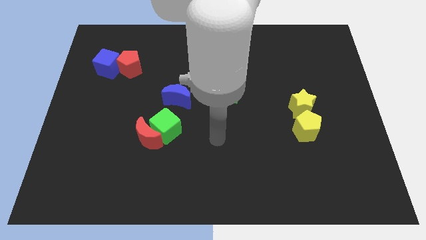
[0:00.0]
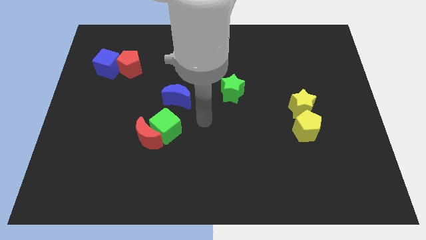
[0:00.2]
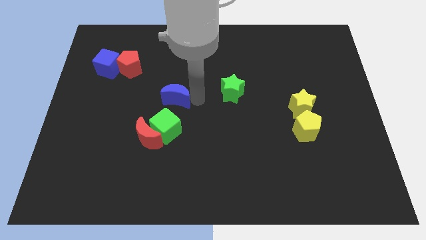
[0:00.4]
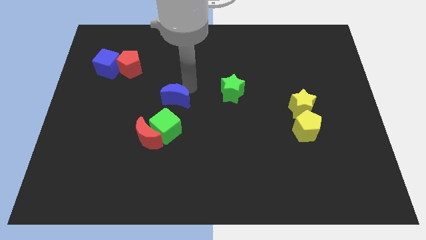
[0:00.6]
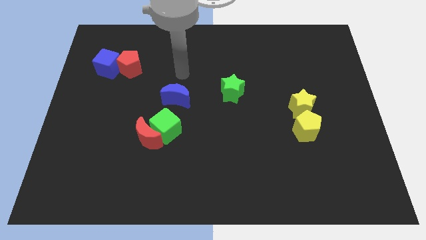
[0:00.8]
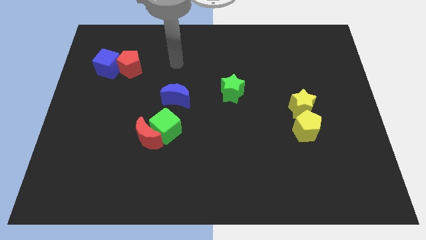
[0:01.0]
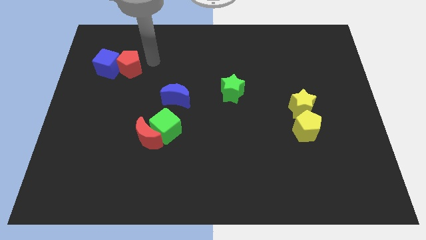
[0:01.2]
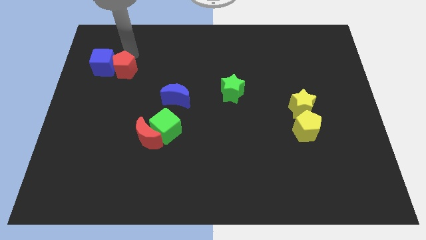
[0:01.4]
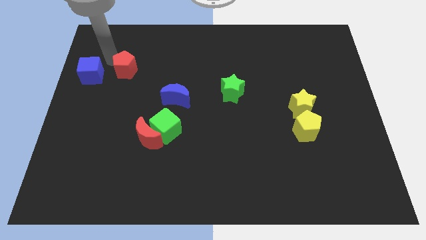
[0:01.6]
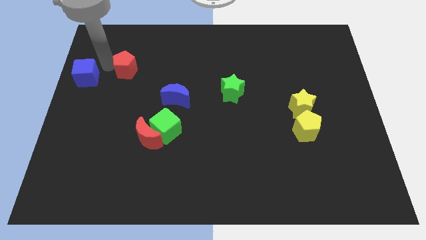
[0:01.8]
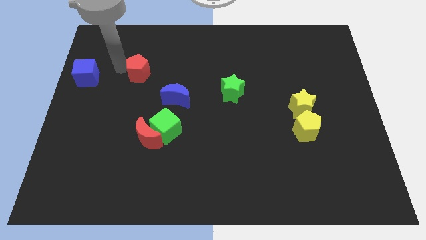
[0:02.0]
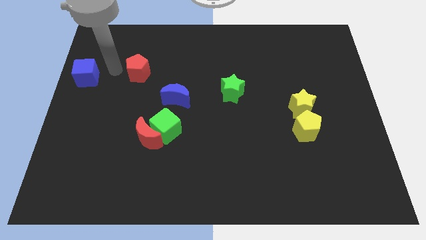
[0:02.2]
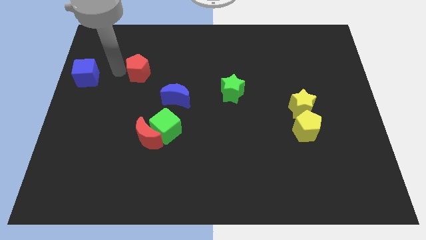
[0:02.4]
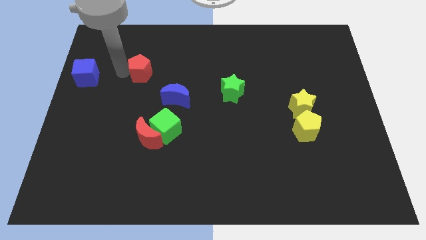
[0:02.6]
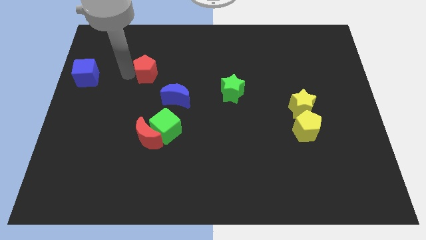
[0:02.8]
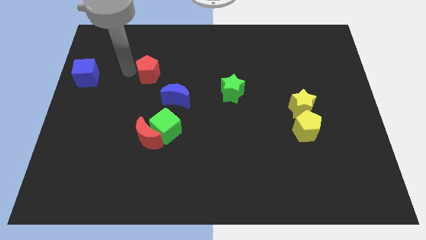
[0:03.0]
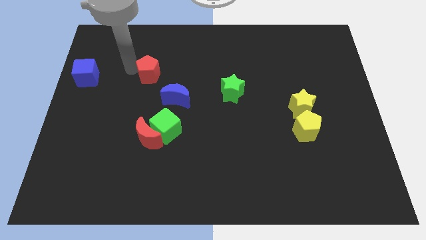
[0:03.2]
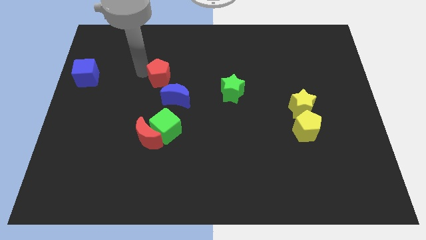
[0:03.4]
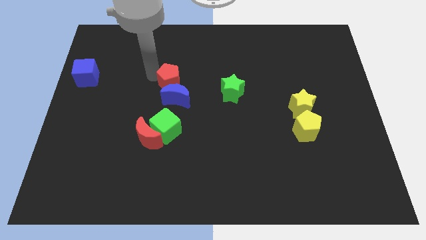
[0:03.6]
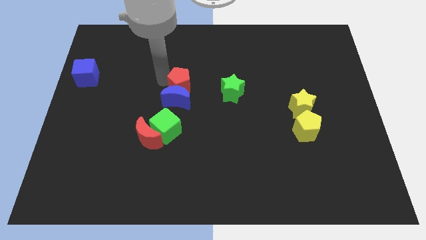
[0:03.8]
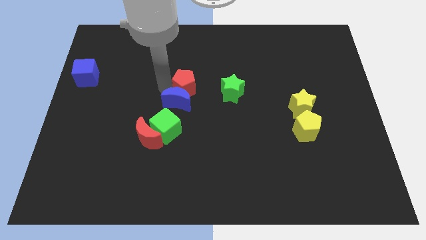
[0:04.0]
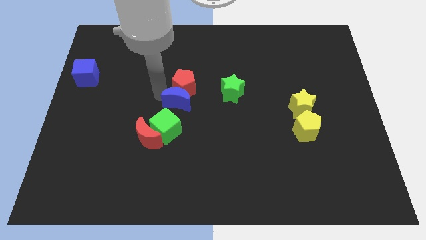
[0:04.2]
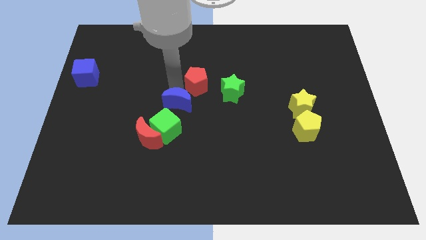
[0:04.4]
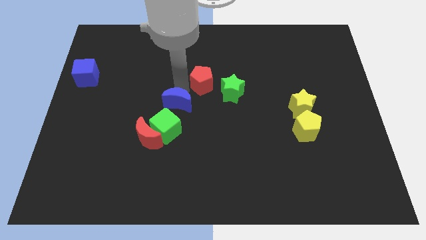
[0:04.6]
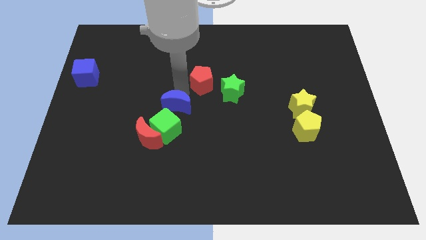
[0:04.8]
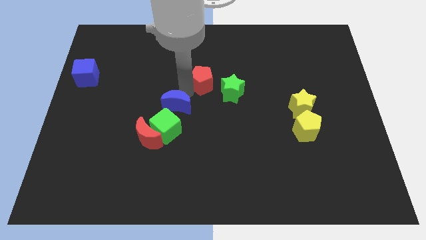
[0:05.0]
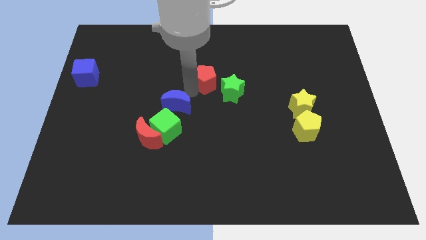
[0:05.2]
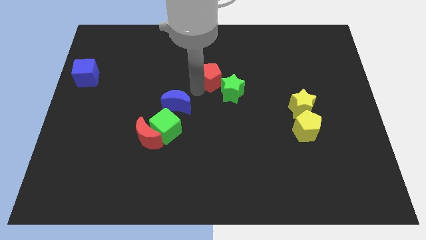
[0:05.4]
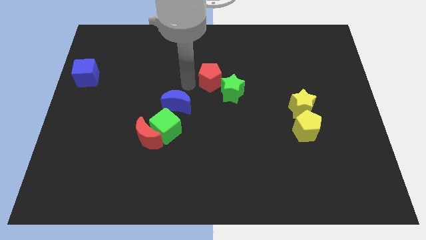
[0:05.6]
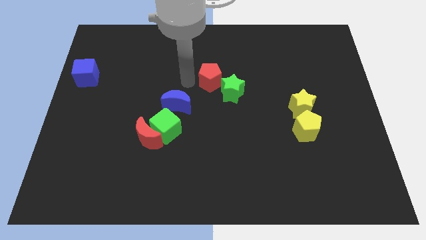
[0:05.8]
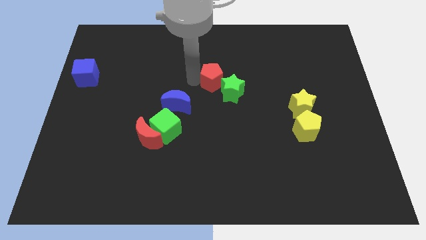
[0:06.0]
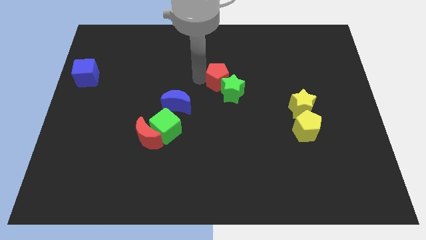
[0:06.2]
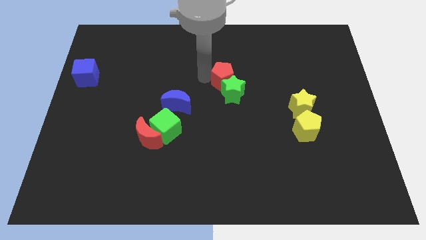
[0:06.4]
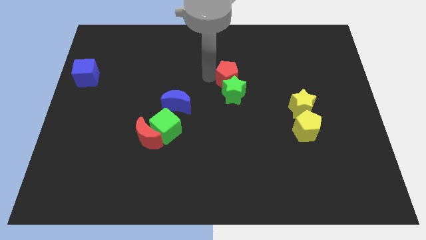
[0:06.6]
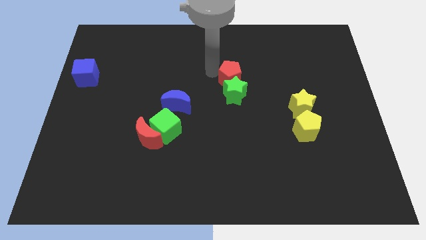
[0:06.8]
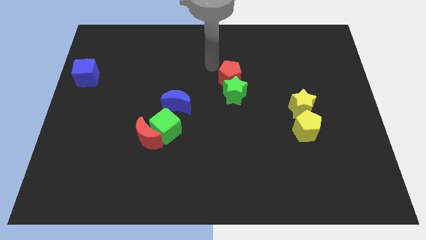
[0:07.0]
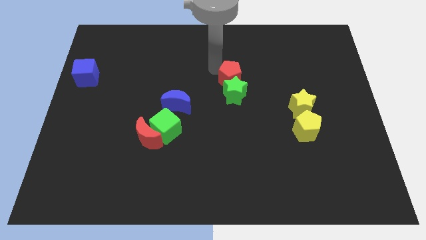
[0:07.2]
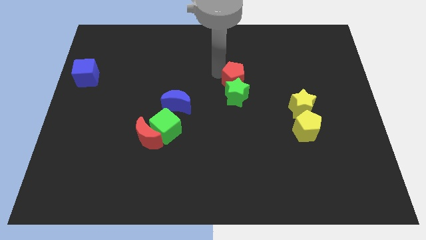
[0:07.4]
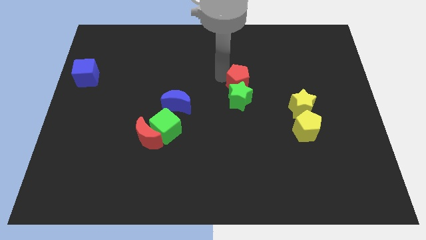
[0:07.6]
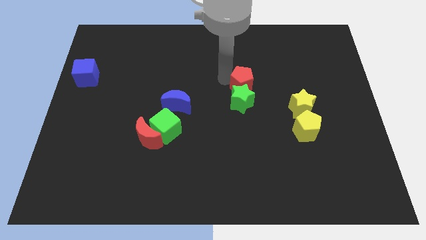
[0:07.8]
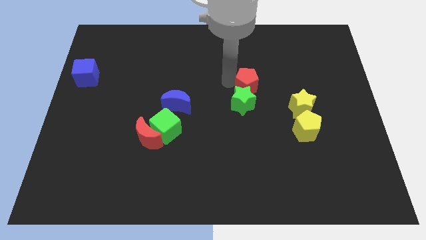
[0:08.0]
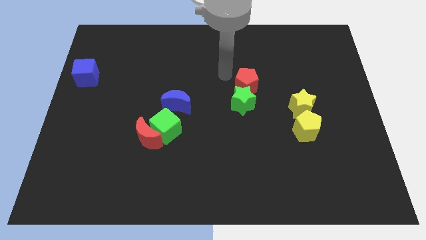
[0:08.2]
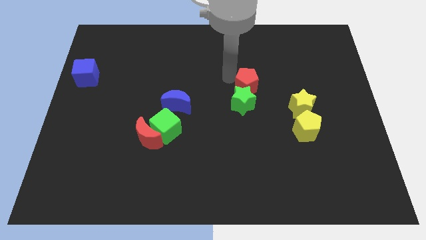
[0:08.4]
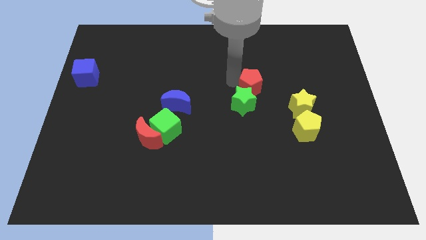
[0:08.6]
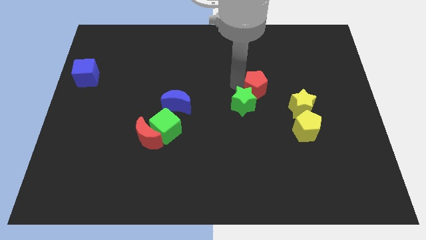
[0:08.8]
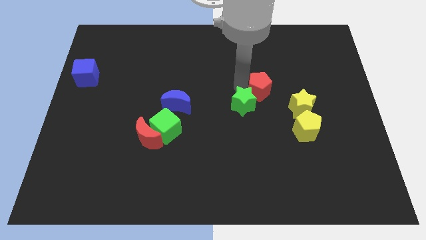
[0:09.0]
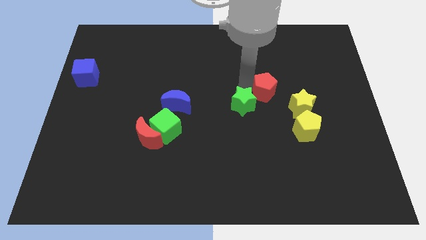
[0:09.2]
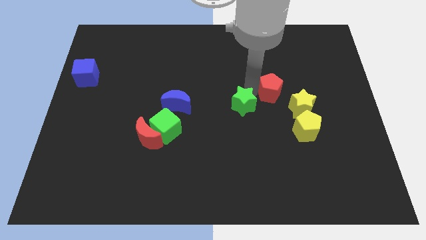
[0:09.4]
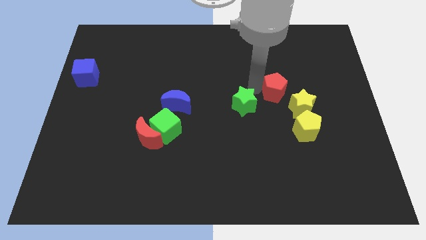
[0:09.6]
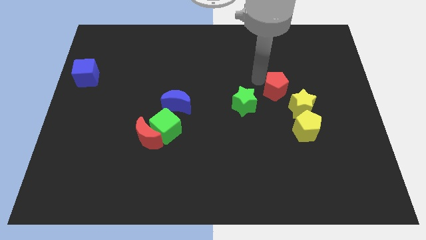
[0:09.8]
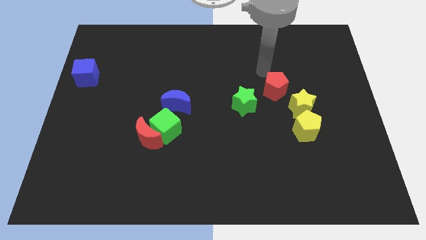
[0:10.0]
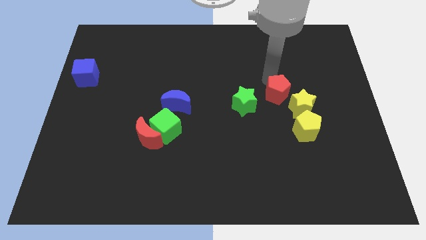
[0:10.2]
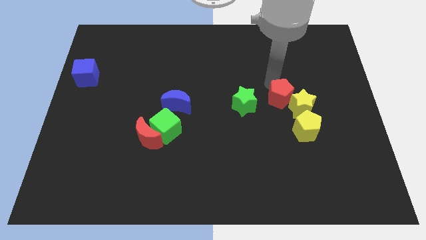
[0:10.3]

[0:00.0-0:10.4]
put the red pentagon close to the yellow star

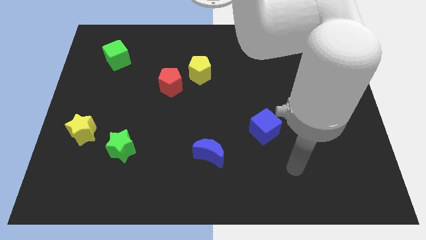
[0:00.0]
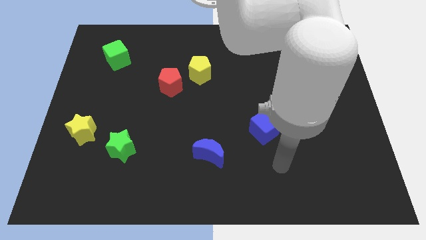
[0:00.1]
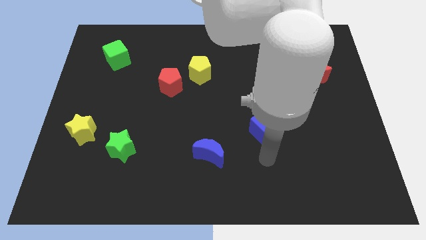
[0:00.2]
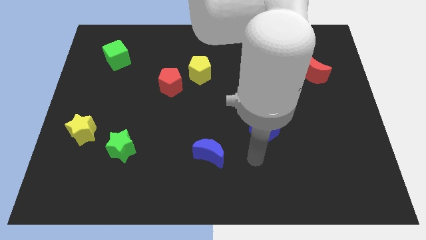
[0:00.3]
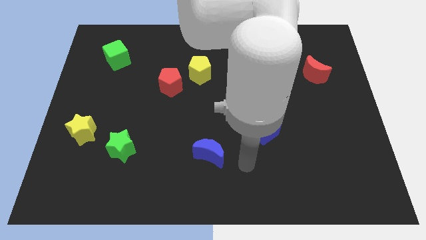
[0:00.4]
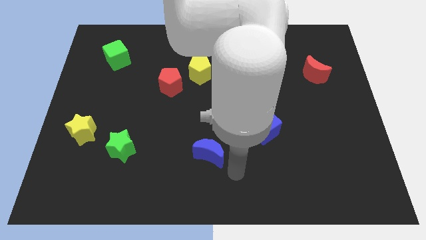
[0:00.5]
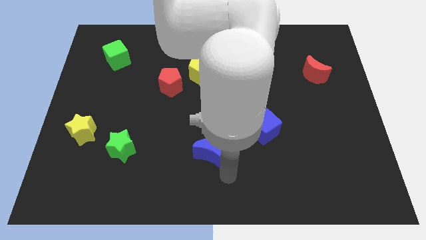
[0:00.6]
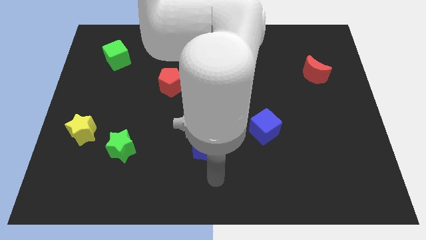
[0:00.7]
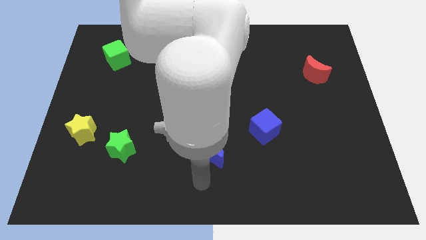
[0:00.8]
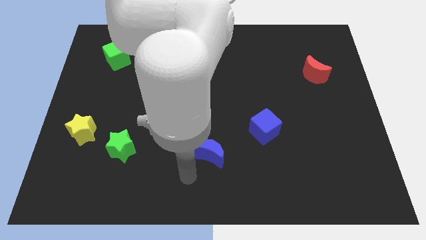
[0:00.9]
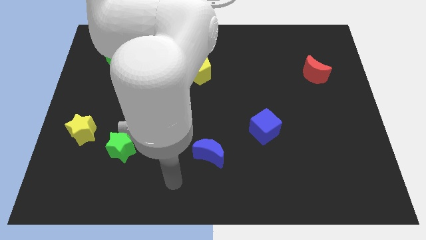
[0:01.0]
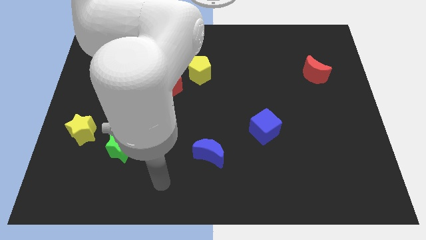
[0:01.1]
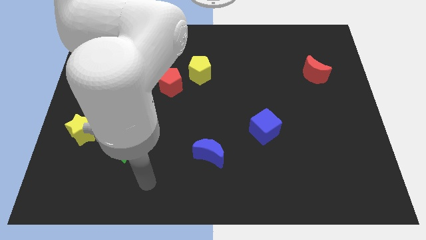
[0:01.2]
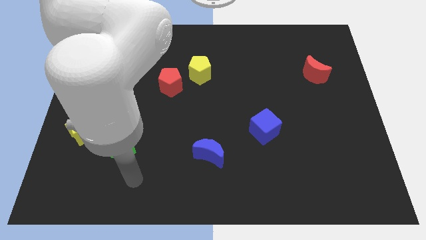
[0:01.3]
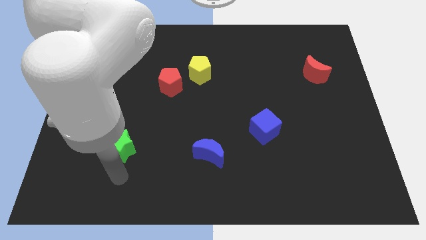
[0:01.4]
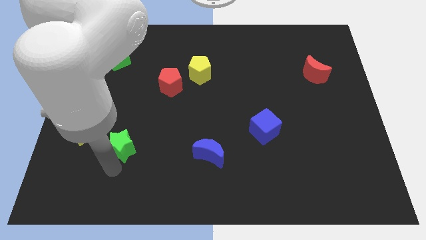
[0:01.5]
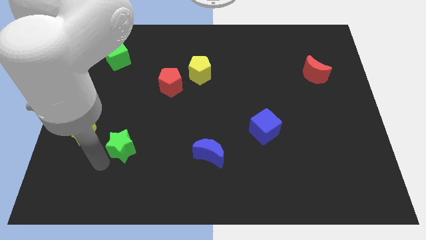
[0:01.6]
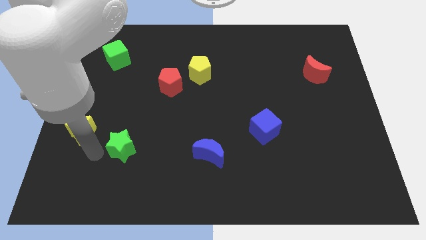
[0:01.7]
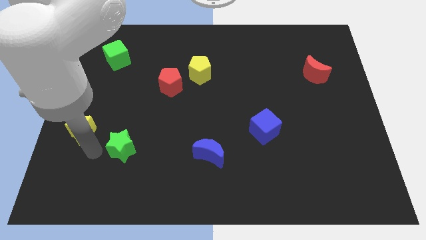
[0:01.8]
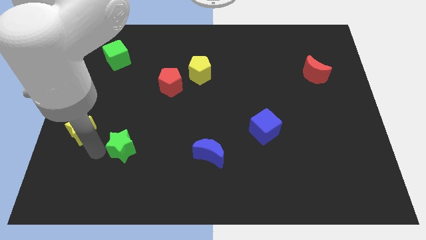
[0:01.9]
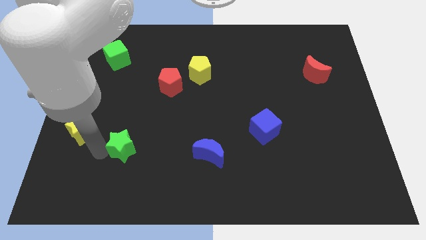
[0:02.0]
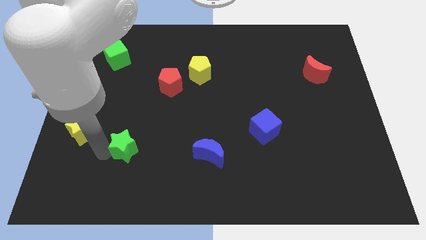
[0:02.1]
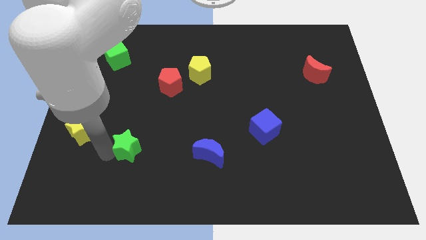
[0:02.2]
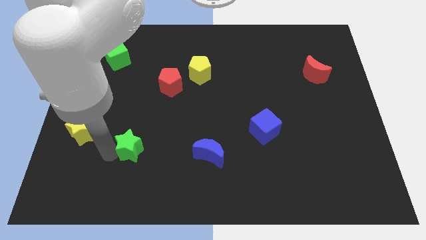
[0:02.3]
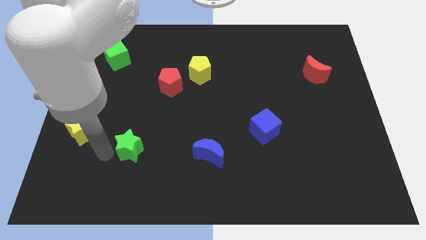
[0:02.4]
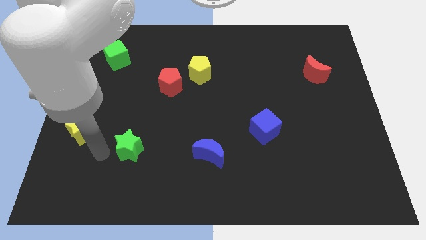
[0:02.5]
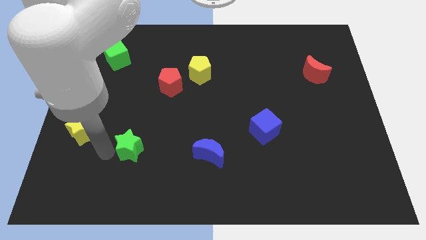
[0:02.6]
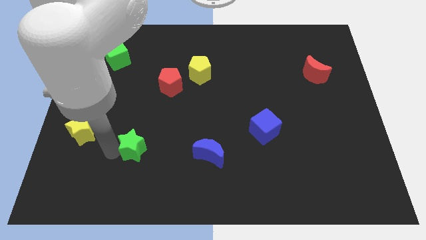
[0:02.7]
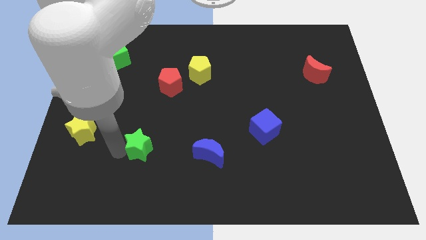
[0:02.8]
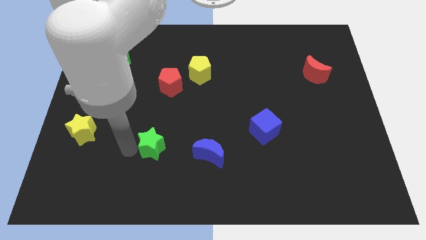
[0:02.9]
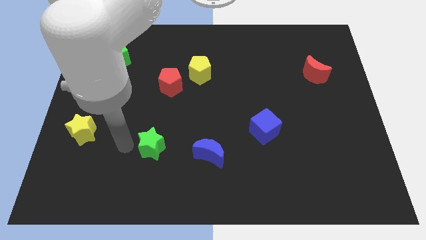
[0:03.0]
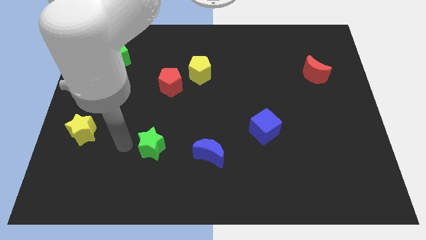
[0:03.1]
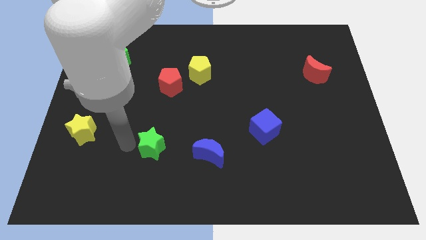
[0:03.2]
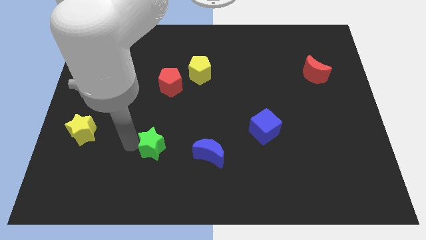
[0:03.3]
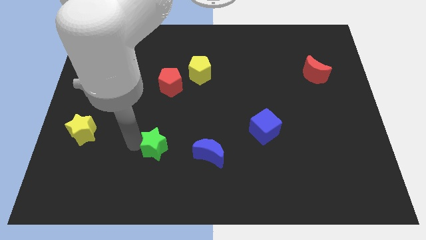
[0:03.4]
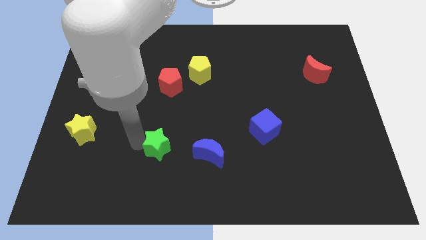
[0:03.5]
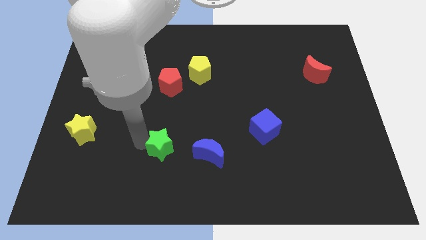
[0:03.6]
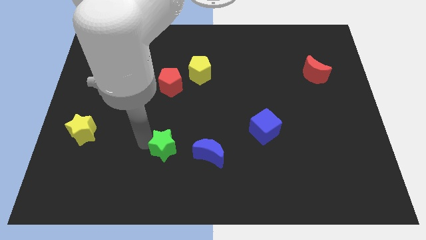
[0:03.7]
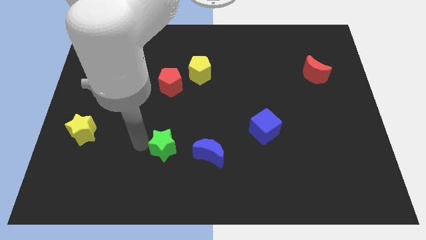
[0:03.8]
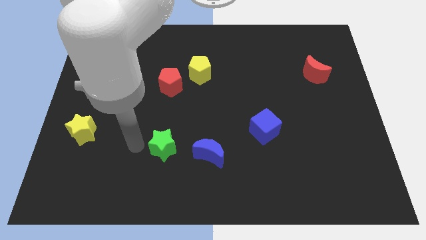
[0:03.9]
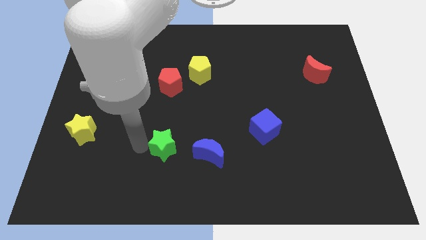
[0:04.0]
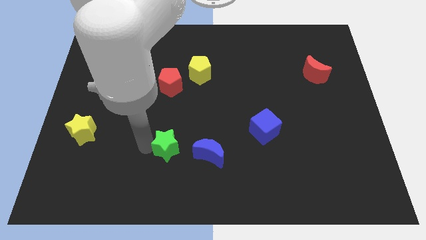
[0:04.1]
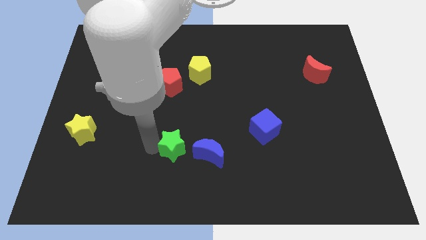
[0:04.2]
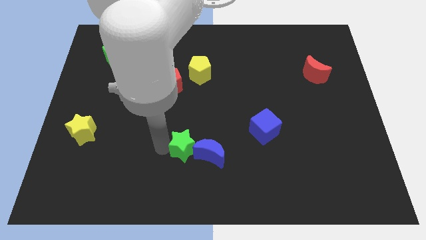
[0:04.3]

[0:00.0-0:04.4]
move the green star next to the blue moon
